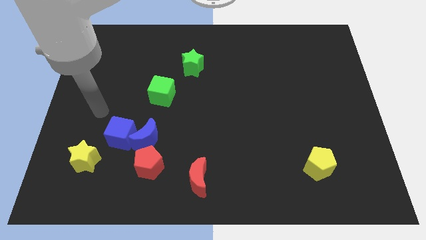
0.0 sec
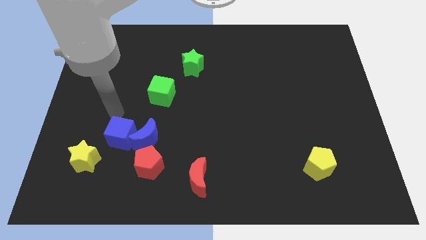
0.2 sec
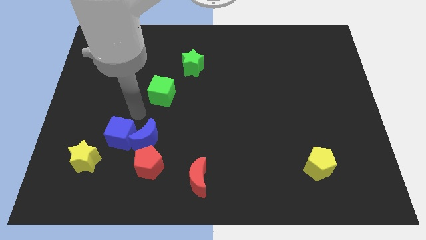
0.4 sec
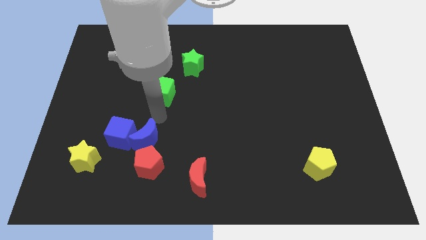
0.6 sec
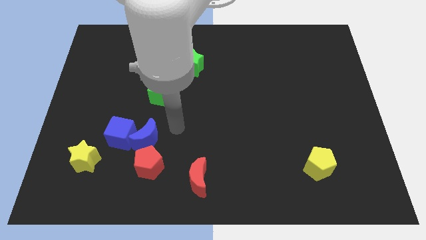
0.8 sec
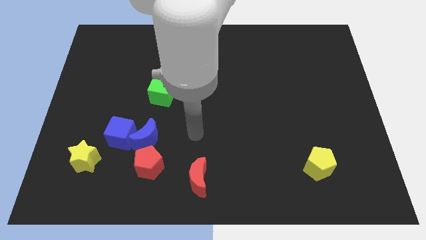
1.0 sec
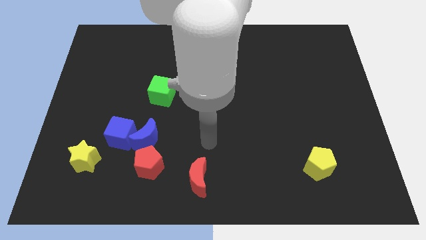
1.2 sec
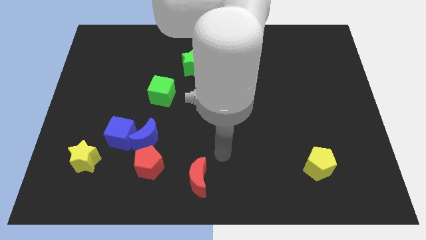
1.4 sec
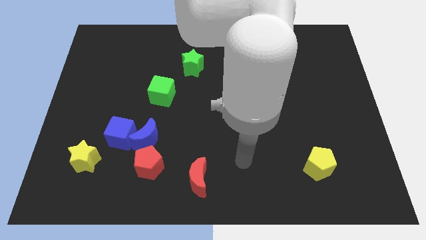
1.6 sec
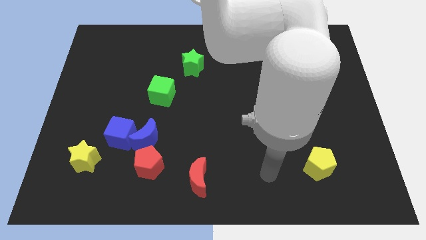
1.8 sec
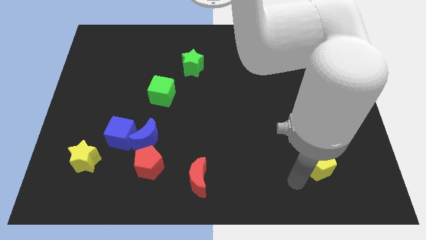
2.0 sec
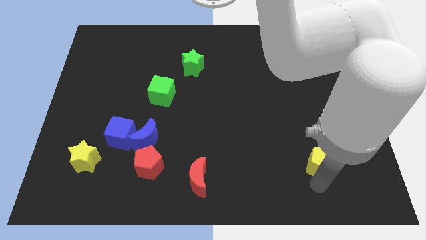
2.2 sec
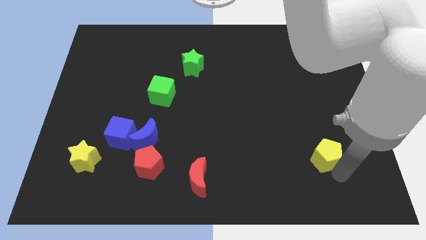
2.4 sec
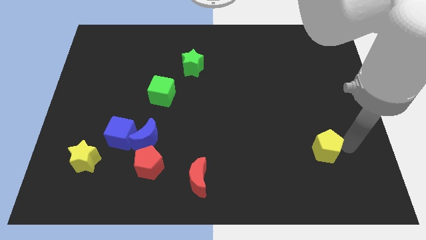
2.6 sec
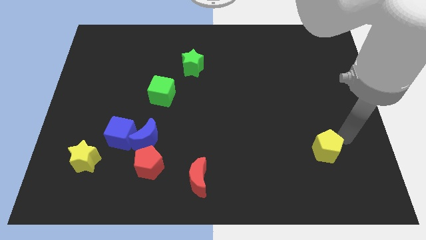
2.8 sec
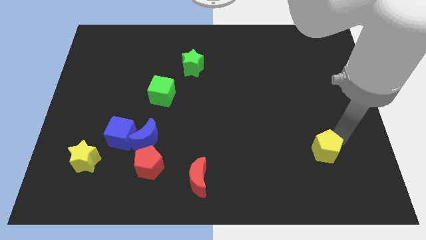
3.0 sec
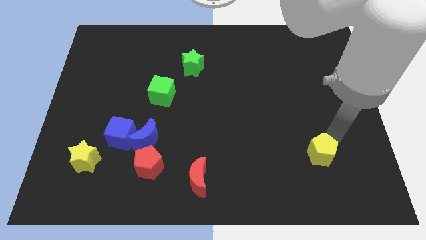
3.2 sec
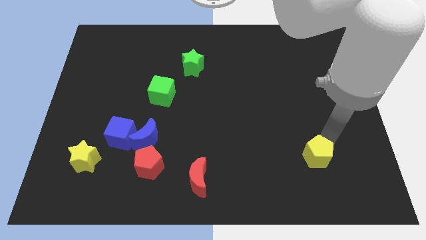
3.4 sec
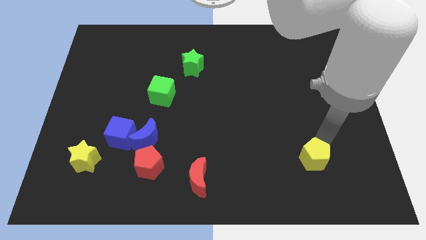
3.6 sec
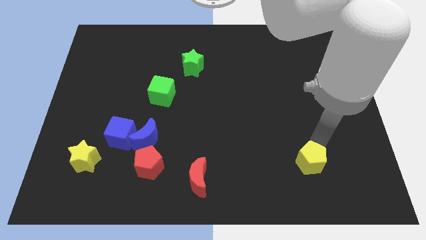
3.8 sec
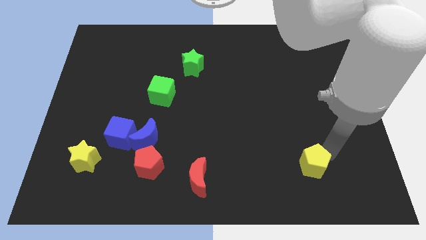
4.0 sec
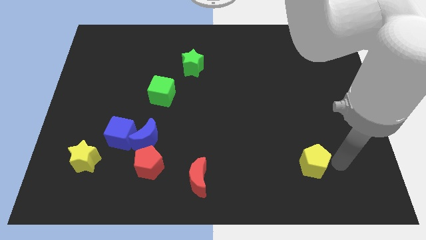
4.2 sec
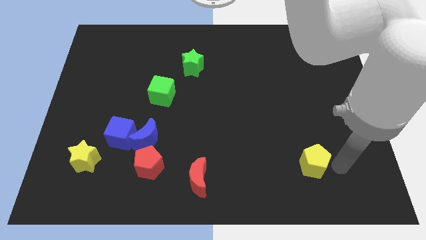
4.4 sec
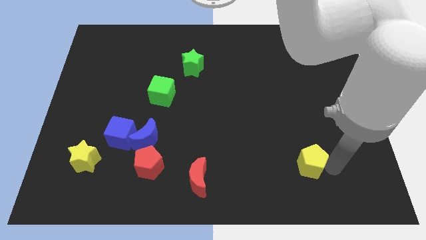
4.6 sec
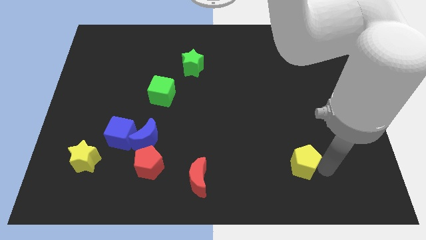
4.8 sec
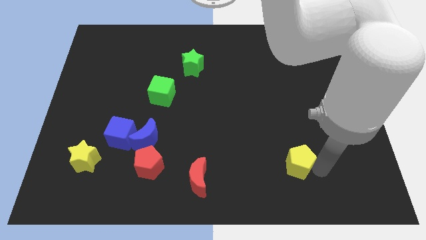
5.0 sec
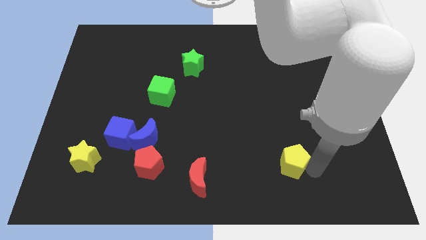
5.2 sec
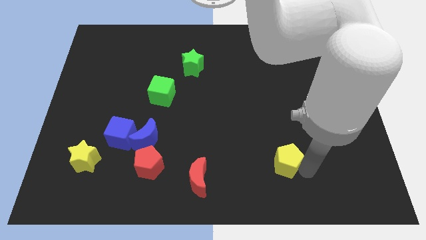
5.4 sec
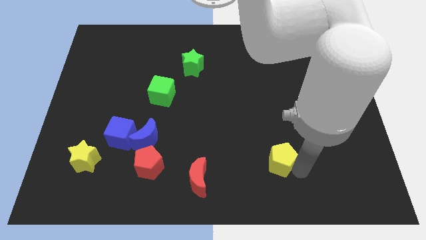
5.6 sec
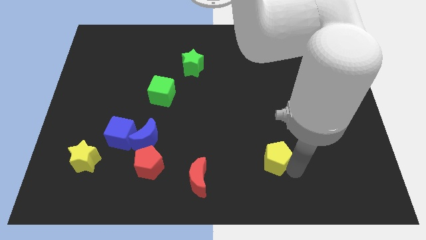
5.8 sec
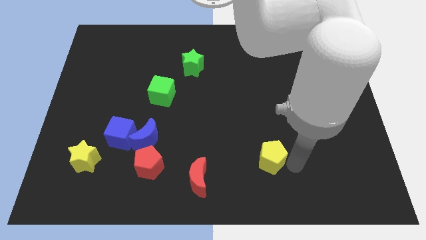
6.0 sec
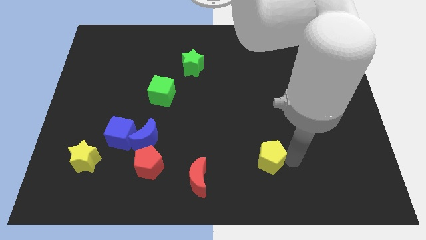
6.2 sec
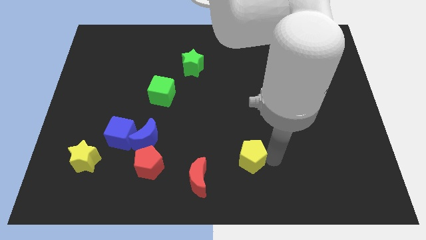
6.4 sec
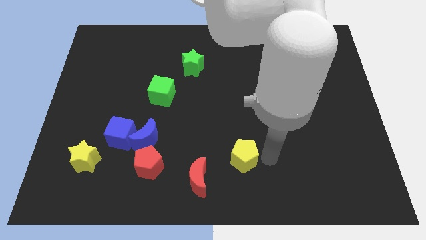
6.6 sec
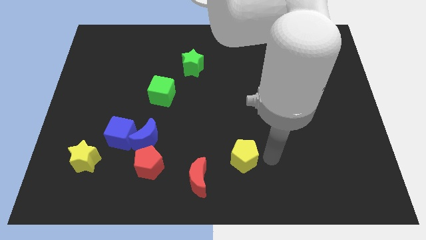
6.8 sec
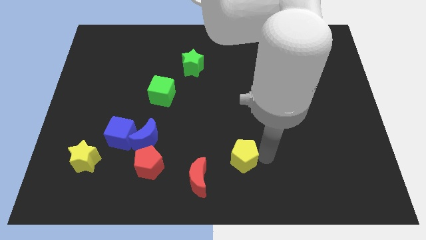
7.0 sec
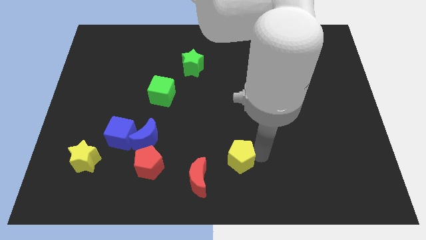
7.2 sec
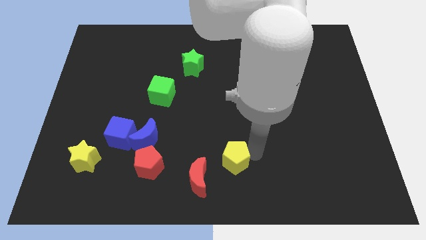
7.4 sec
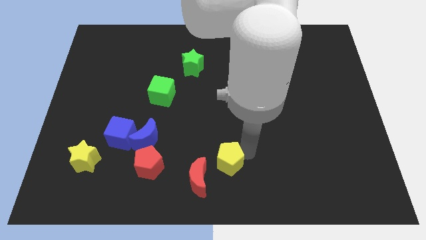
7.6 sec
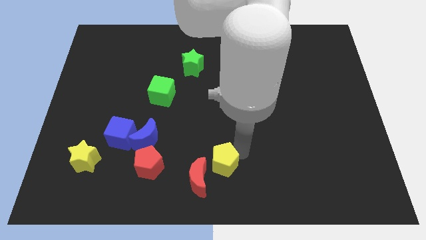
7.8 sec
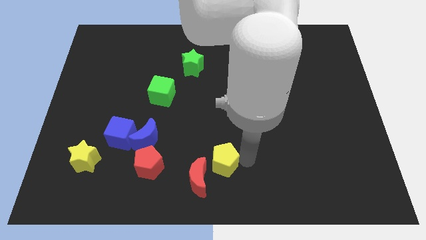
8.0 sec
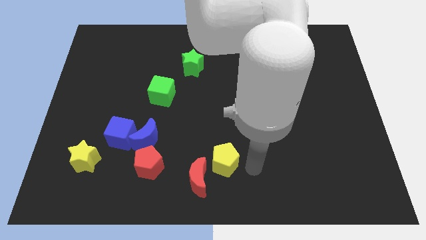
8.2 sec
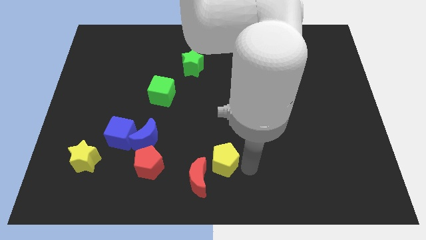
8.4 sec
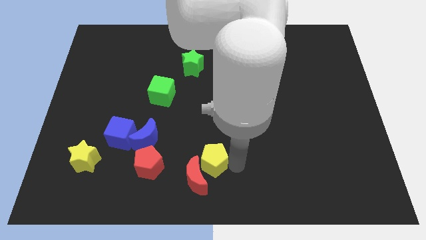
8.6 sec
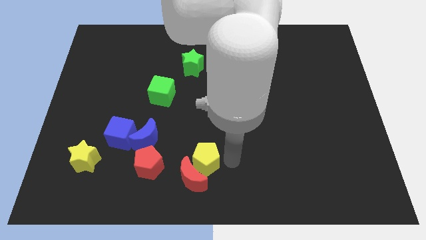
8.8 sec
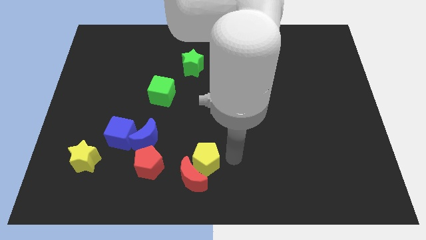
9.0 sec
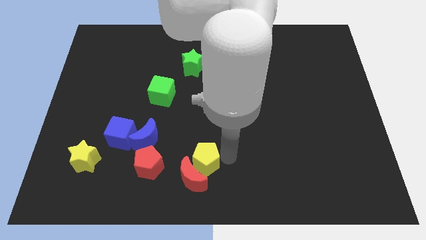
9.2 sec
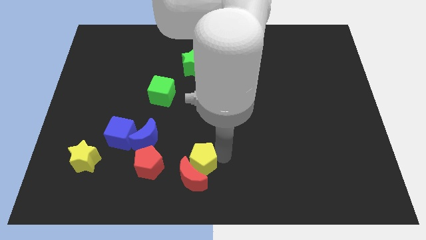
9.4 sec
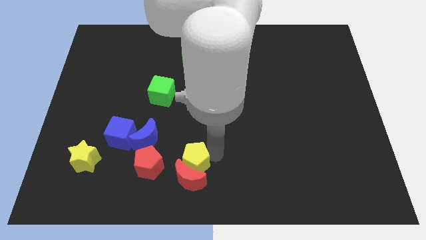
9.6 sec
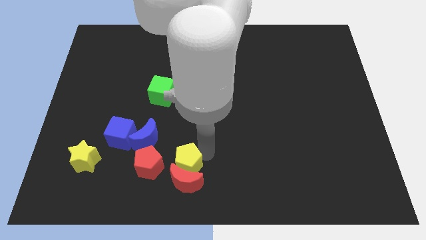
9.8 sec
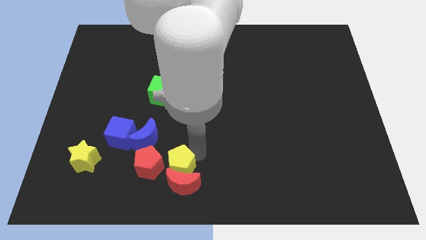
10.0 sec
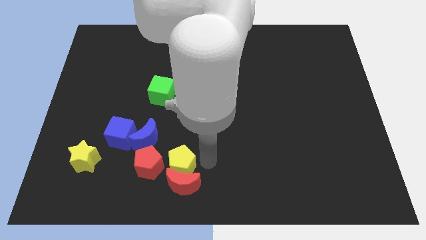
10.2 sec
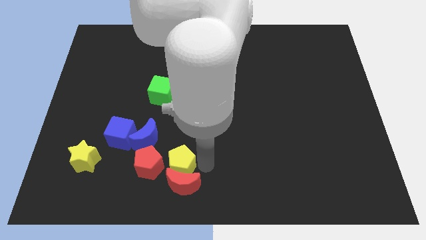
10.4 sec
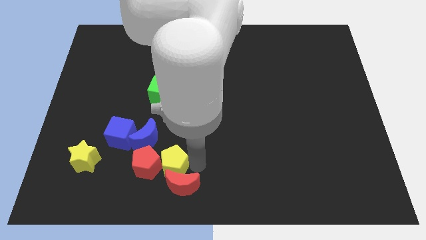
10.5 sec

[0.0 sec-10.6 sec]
move the yellow pentagon close to the red pentagon

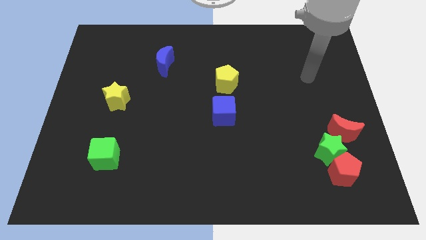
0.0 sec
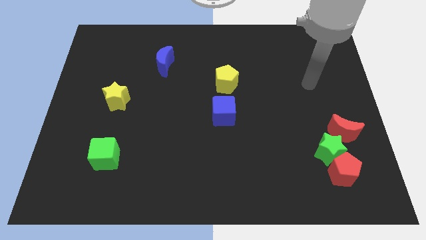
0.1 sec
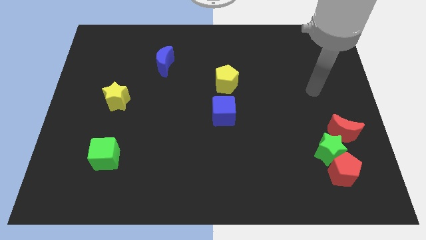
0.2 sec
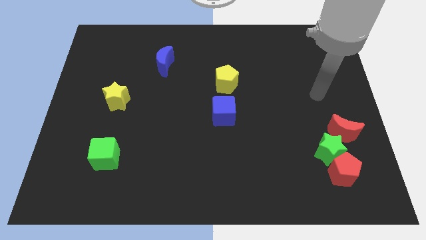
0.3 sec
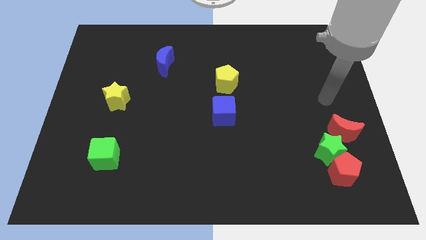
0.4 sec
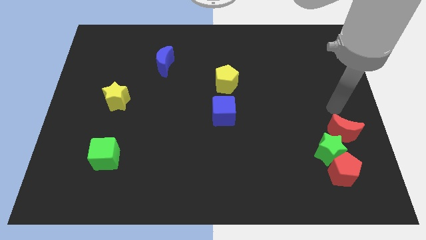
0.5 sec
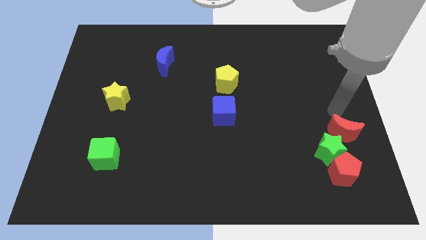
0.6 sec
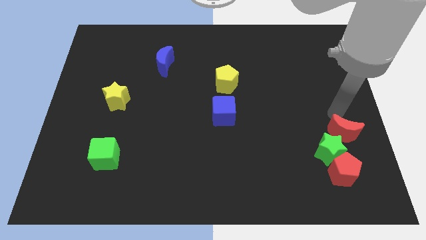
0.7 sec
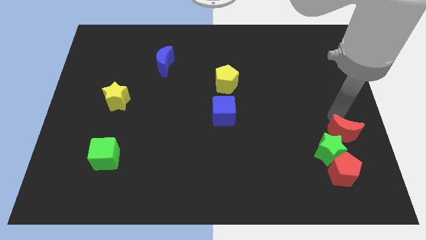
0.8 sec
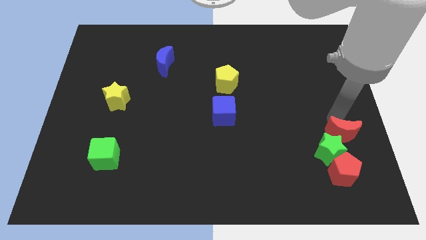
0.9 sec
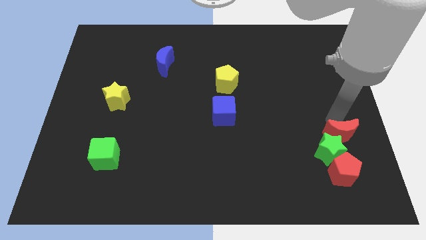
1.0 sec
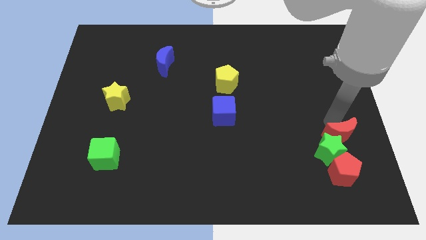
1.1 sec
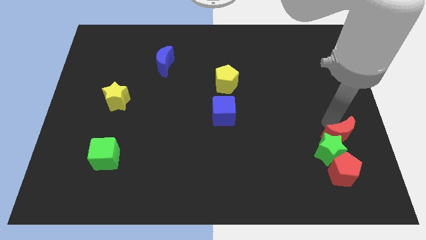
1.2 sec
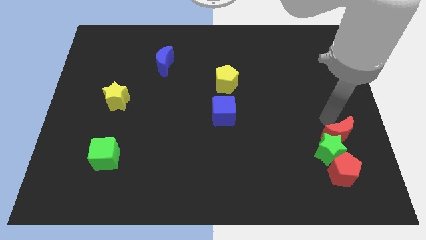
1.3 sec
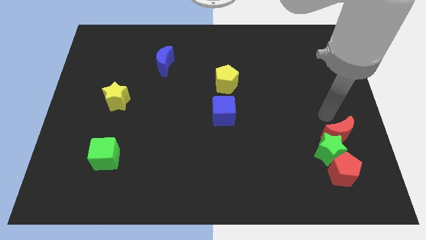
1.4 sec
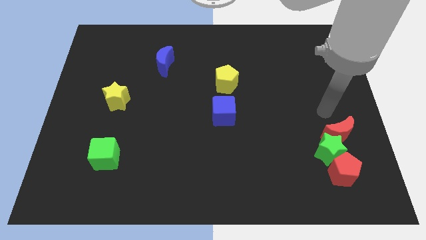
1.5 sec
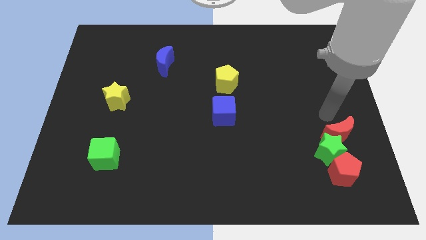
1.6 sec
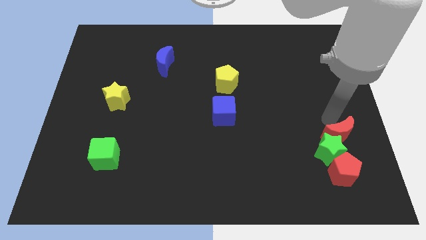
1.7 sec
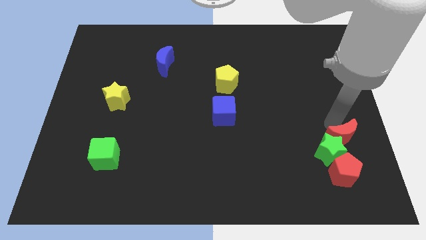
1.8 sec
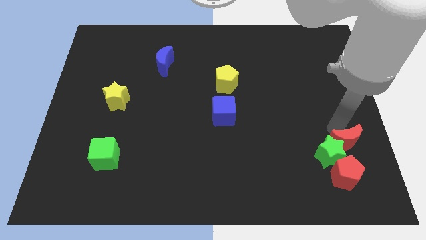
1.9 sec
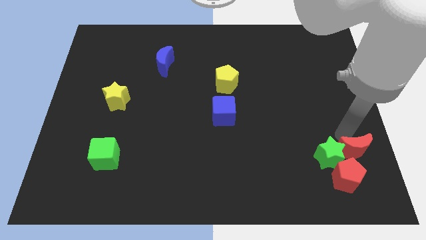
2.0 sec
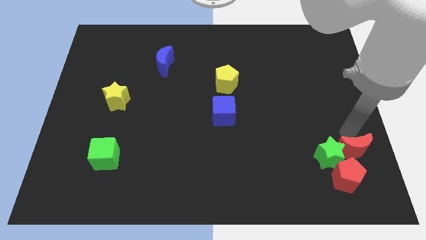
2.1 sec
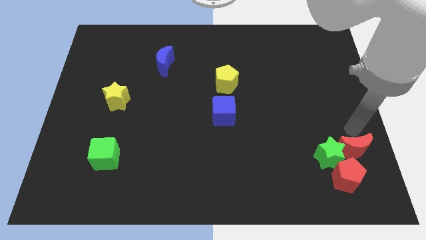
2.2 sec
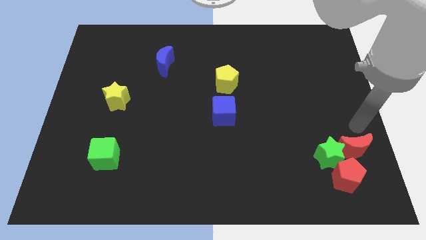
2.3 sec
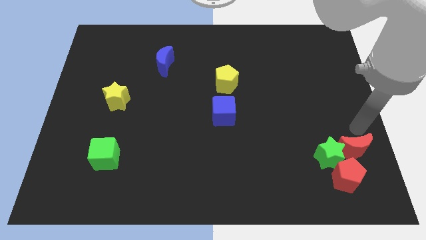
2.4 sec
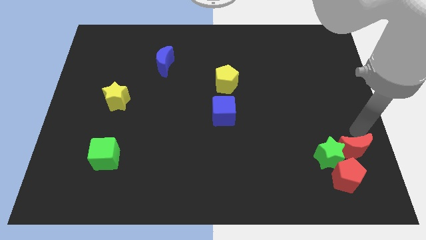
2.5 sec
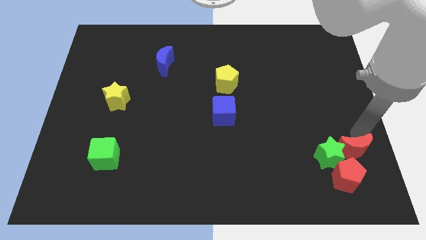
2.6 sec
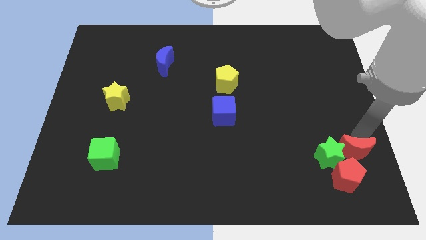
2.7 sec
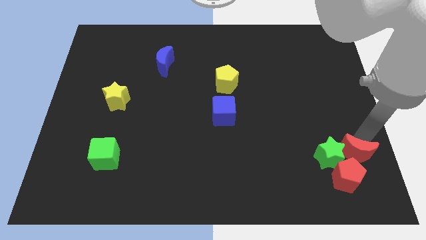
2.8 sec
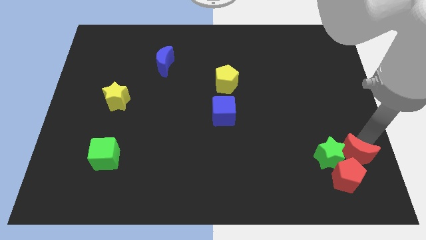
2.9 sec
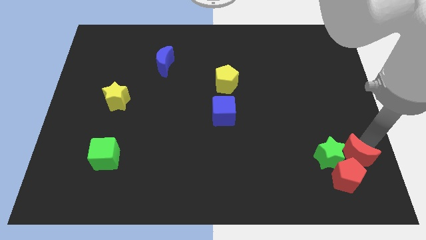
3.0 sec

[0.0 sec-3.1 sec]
push the red moon next to the red pentagon
